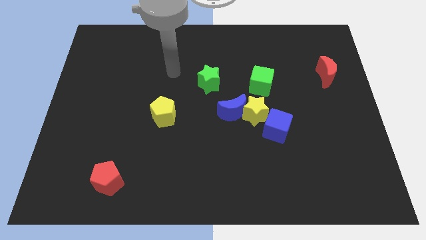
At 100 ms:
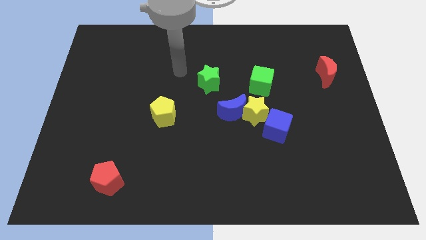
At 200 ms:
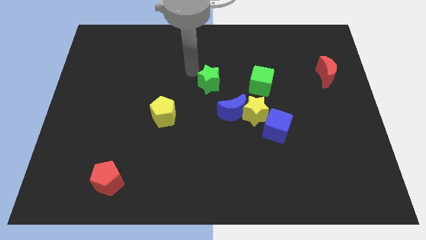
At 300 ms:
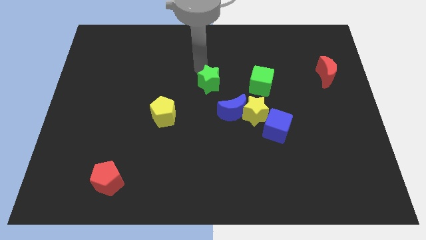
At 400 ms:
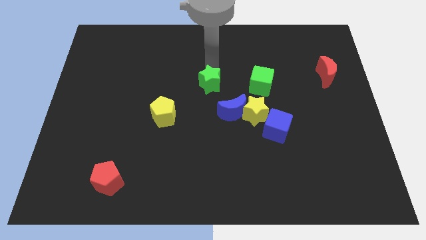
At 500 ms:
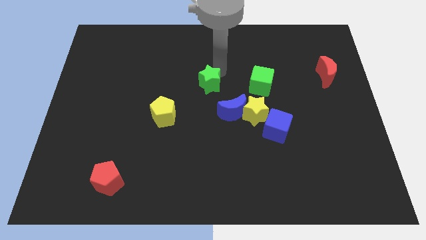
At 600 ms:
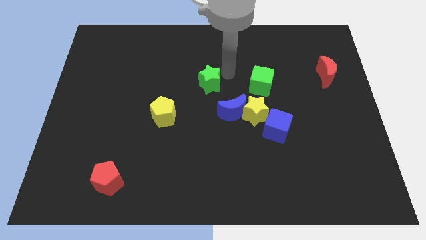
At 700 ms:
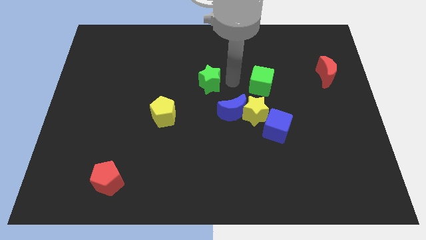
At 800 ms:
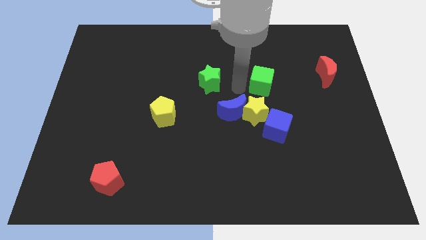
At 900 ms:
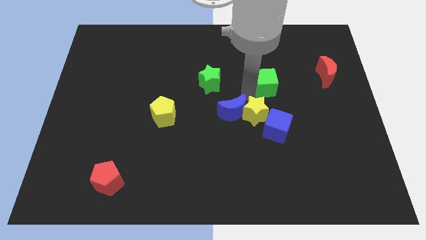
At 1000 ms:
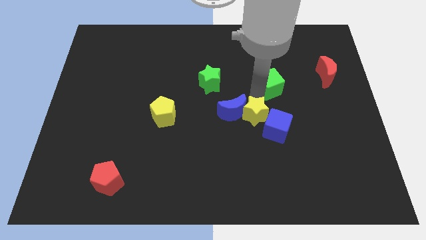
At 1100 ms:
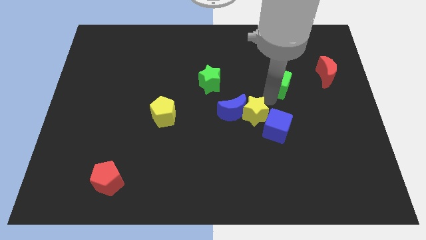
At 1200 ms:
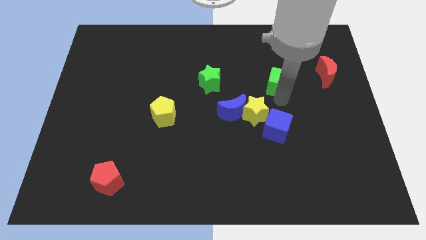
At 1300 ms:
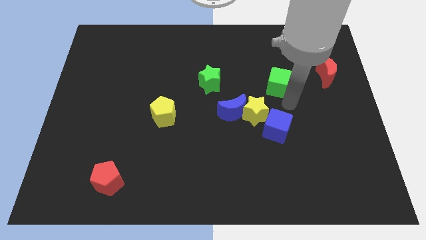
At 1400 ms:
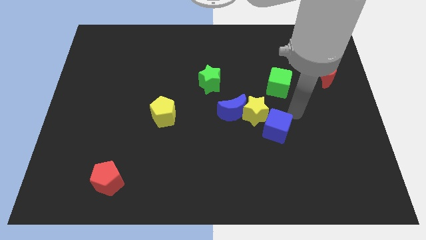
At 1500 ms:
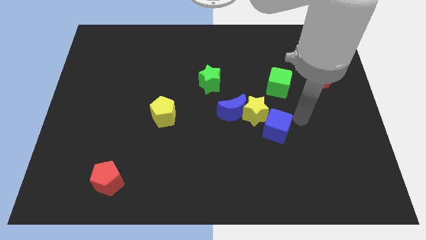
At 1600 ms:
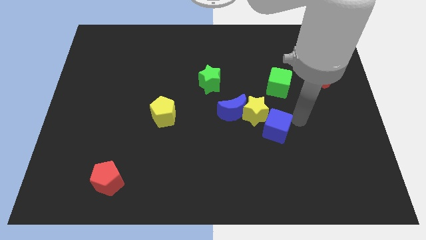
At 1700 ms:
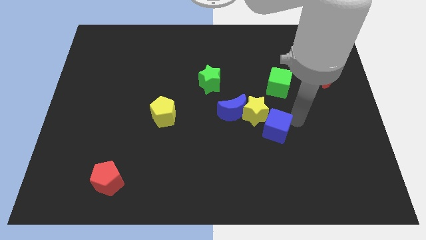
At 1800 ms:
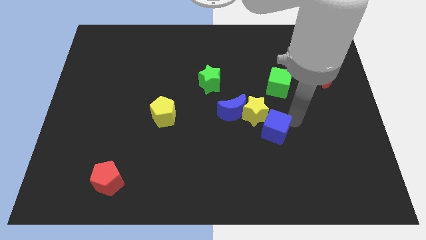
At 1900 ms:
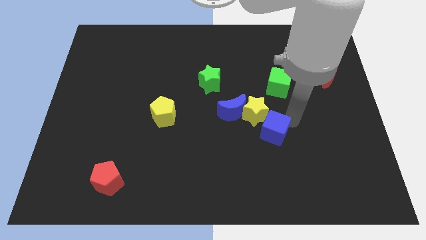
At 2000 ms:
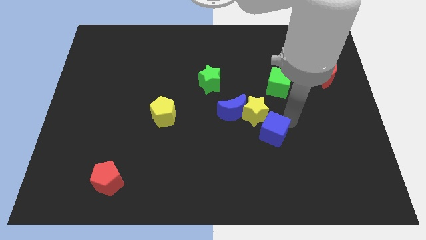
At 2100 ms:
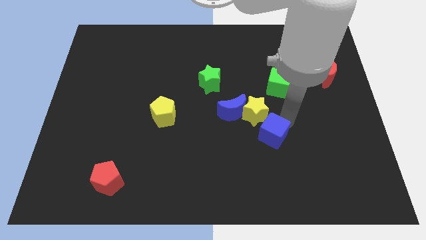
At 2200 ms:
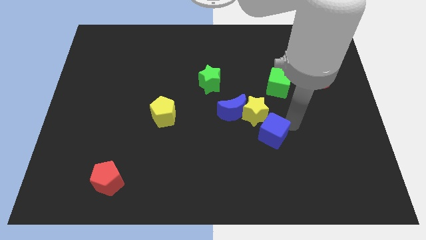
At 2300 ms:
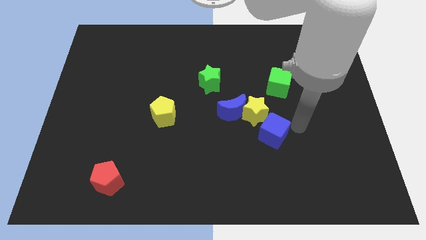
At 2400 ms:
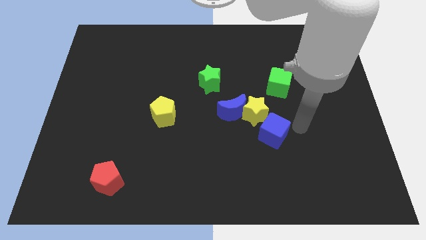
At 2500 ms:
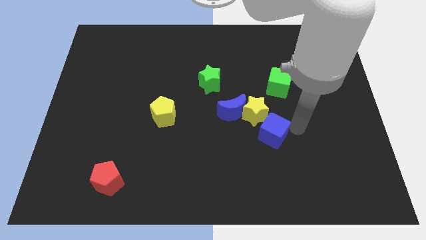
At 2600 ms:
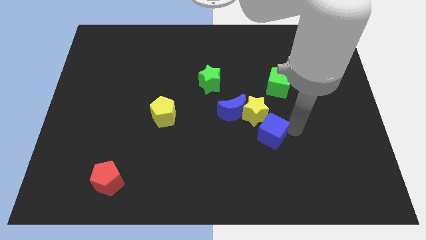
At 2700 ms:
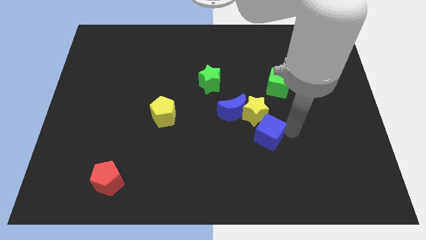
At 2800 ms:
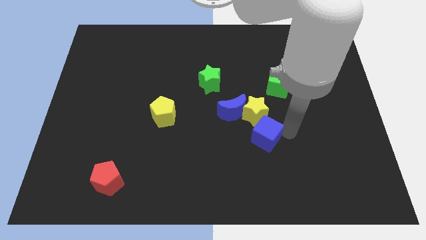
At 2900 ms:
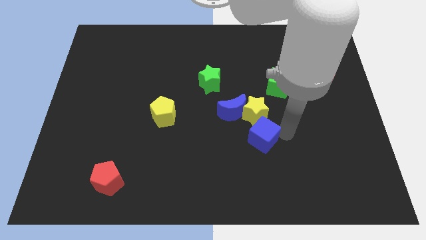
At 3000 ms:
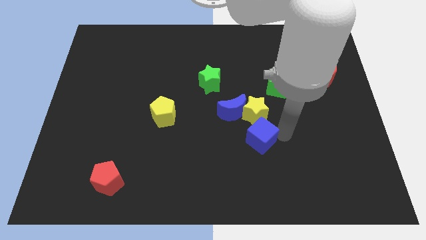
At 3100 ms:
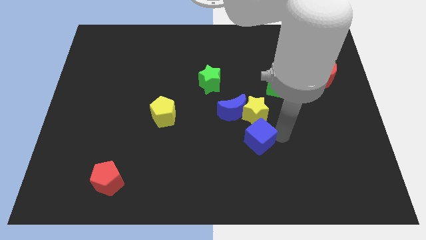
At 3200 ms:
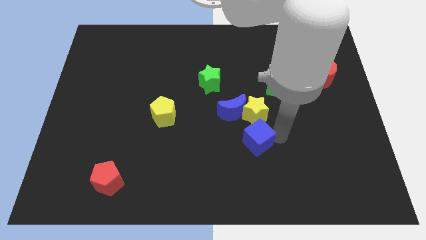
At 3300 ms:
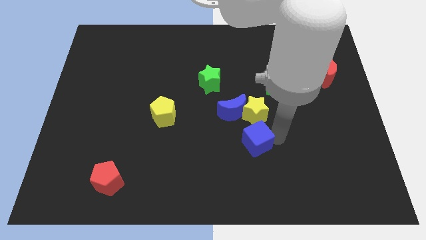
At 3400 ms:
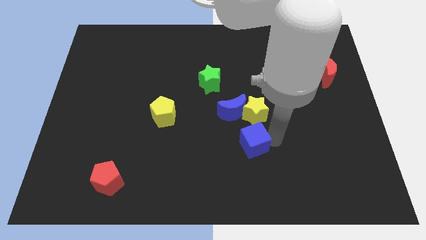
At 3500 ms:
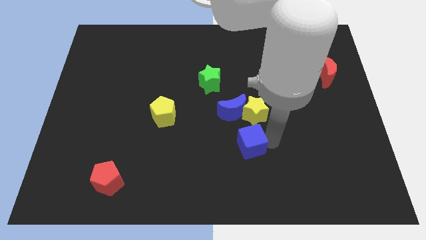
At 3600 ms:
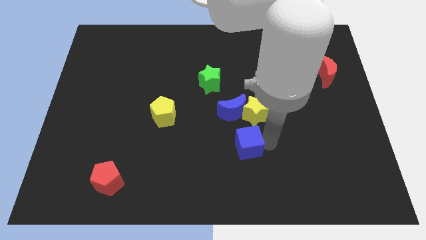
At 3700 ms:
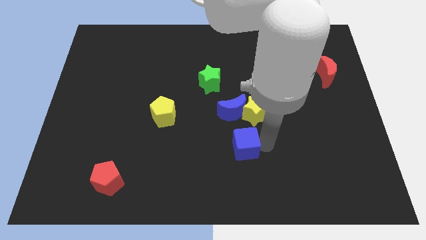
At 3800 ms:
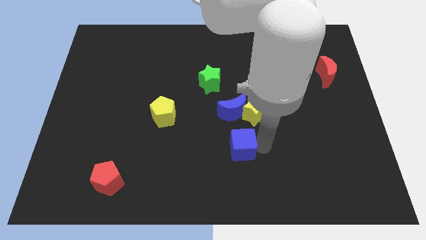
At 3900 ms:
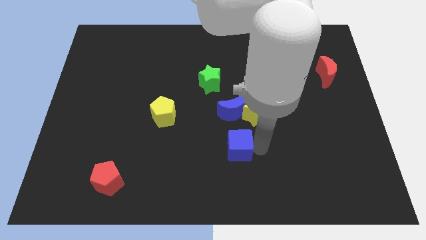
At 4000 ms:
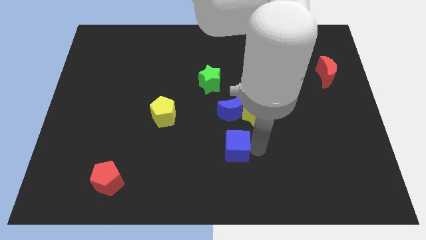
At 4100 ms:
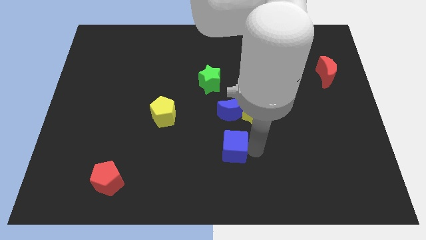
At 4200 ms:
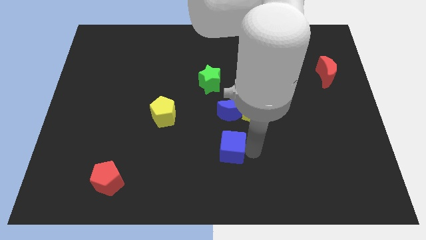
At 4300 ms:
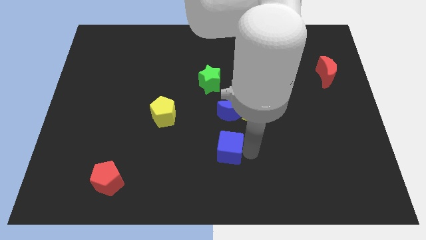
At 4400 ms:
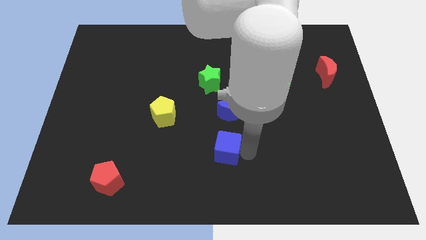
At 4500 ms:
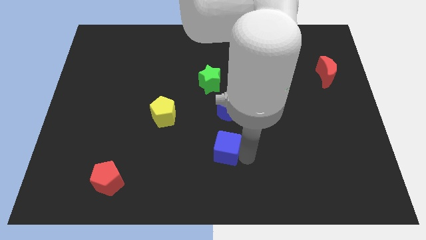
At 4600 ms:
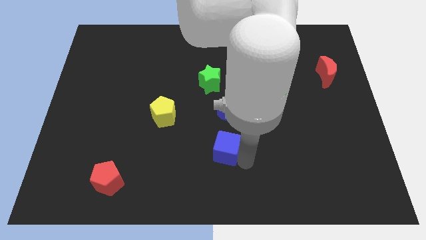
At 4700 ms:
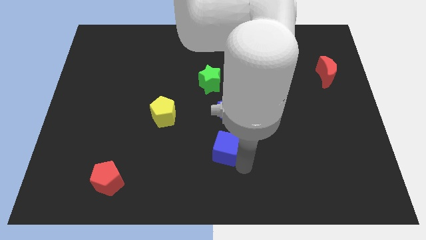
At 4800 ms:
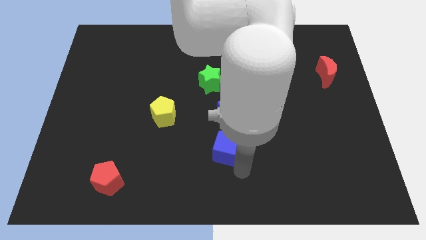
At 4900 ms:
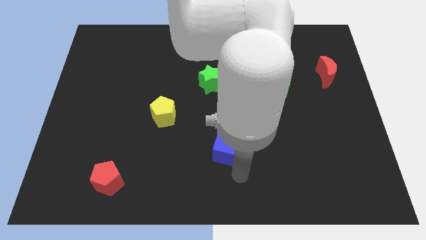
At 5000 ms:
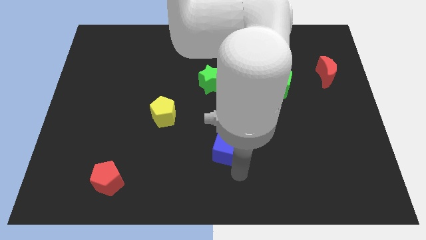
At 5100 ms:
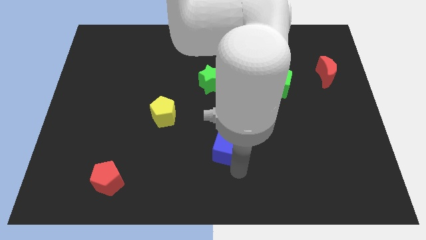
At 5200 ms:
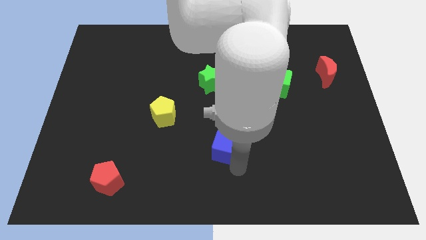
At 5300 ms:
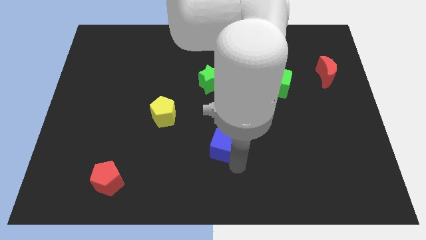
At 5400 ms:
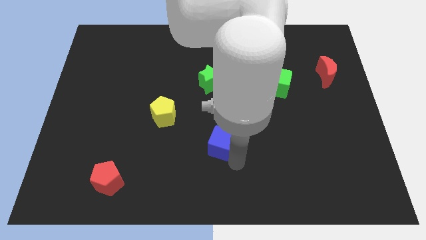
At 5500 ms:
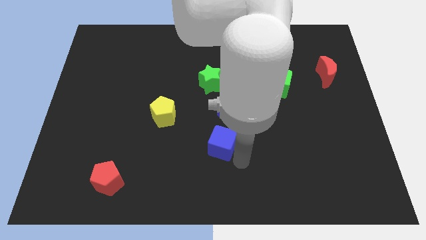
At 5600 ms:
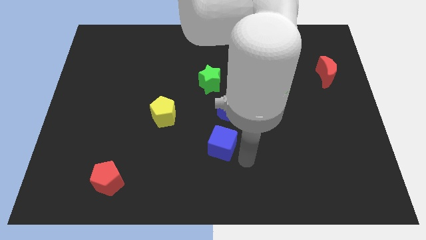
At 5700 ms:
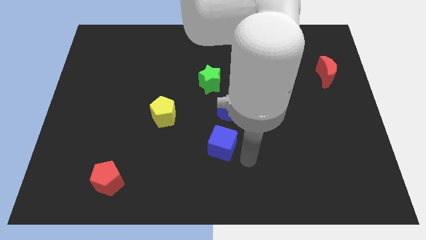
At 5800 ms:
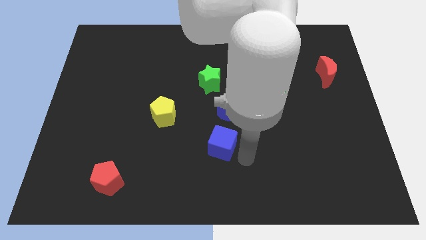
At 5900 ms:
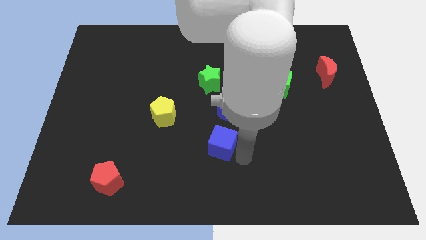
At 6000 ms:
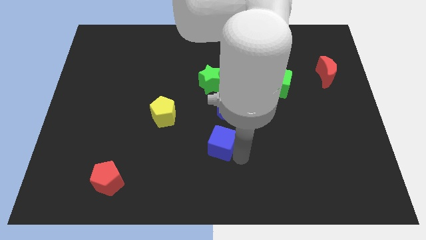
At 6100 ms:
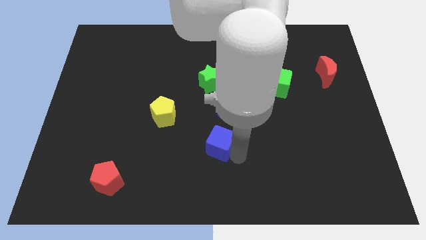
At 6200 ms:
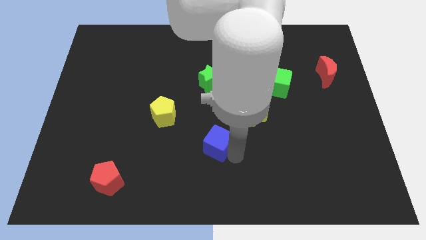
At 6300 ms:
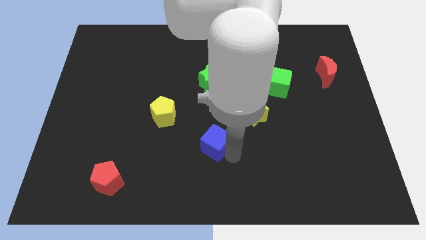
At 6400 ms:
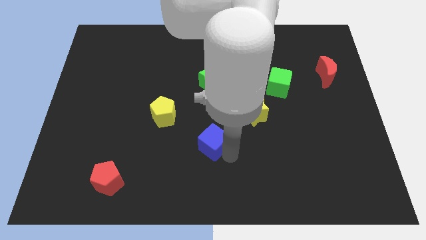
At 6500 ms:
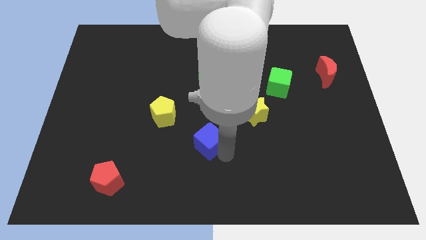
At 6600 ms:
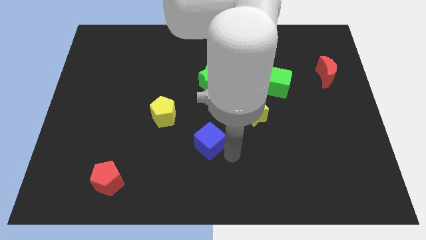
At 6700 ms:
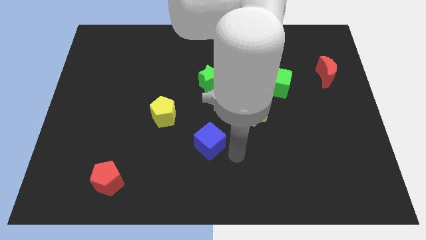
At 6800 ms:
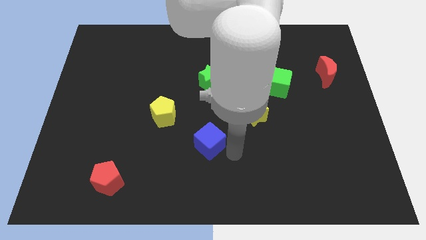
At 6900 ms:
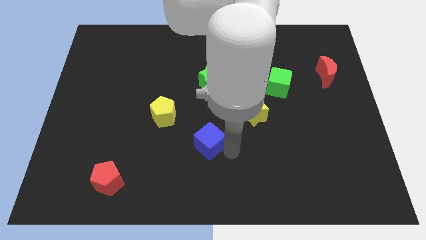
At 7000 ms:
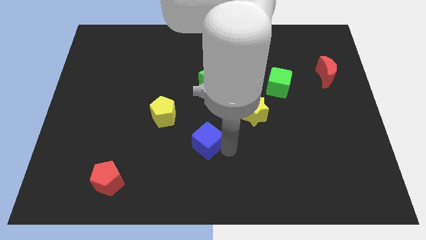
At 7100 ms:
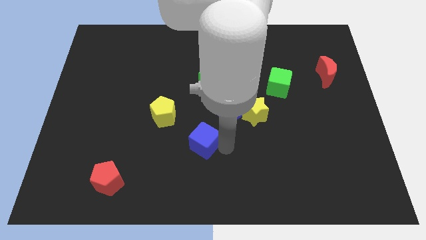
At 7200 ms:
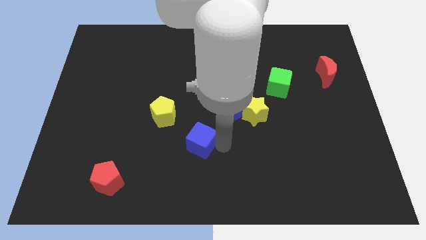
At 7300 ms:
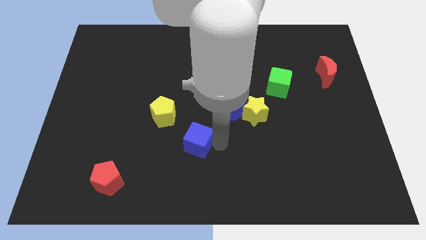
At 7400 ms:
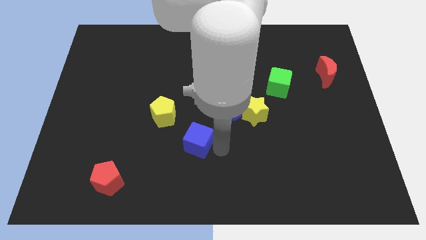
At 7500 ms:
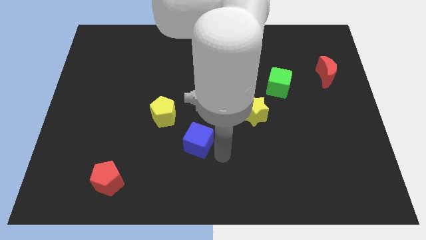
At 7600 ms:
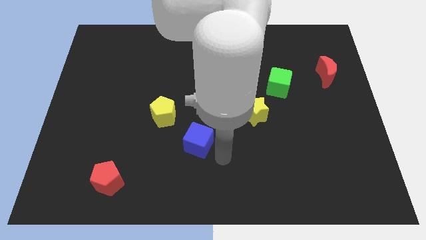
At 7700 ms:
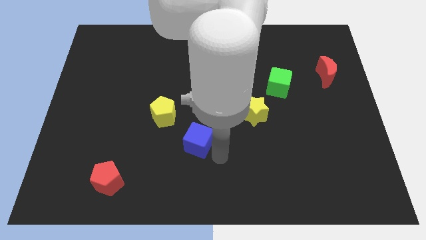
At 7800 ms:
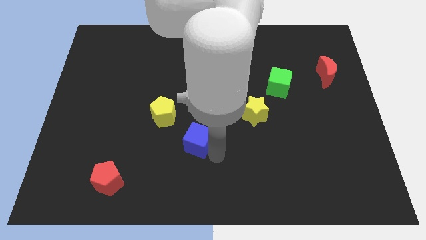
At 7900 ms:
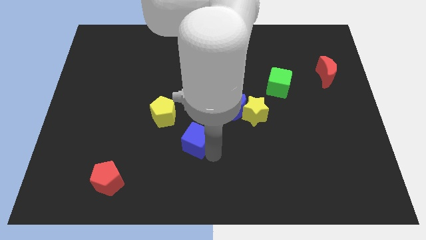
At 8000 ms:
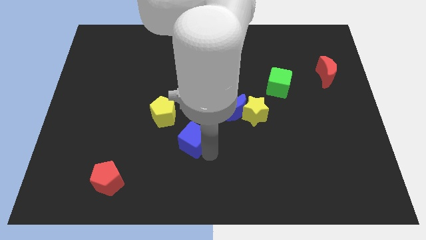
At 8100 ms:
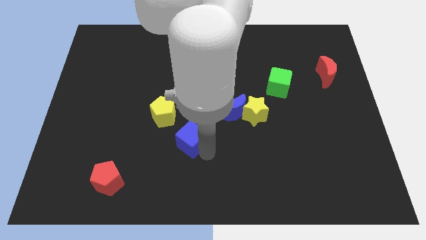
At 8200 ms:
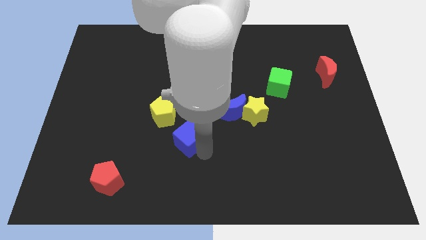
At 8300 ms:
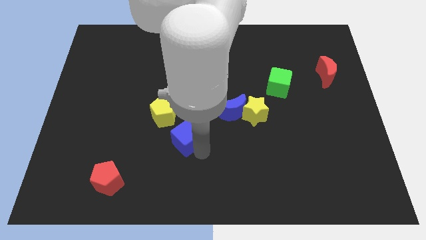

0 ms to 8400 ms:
slide the blue cube to the left
